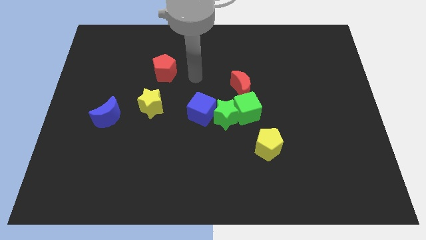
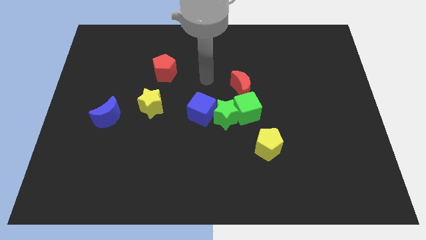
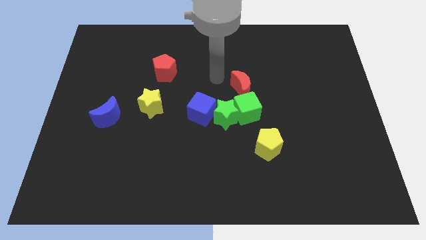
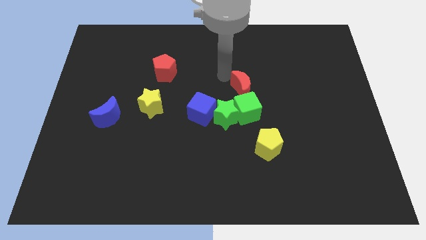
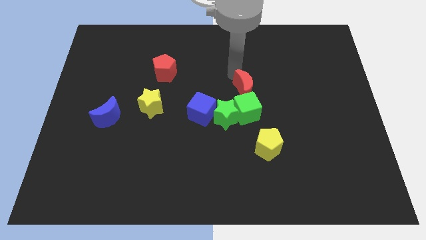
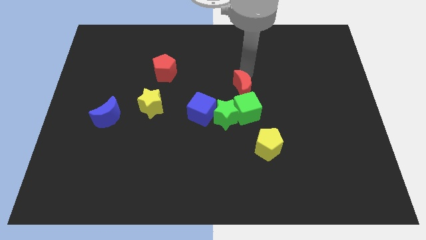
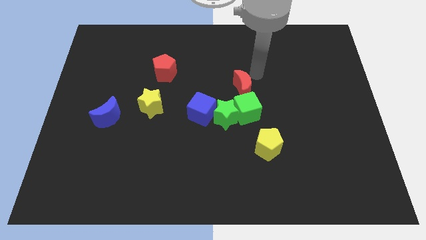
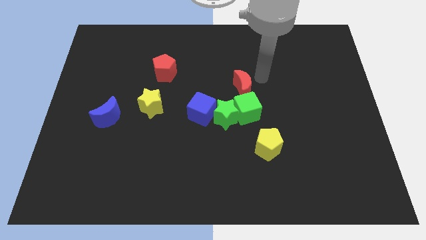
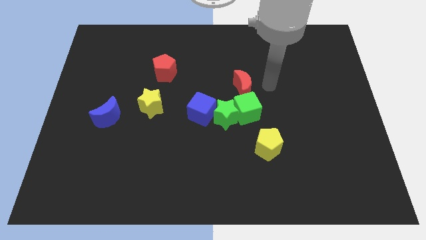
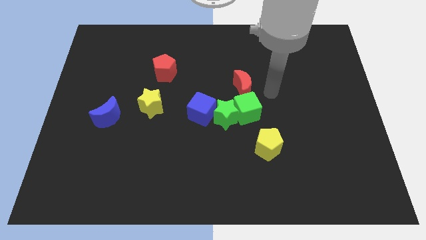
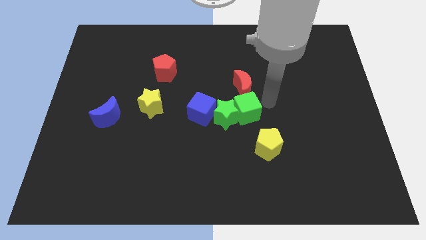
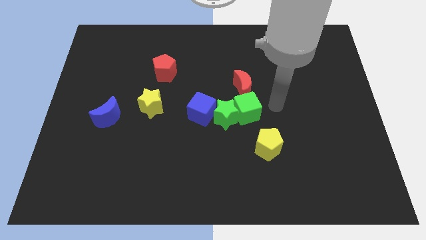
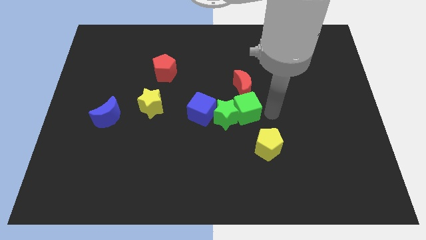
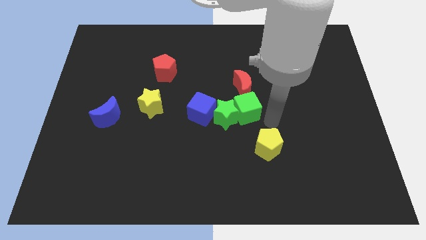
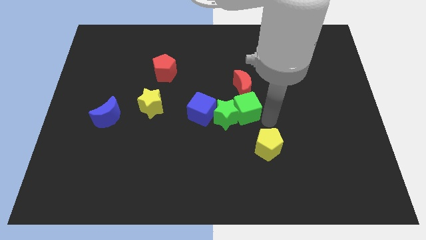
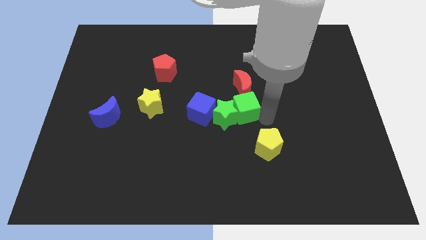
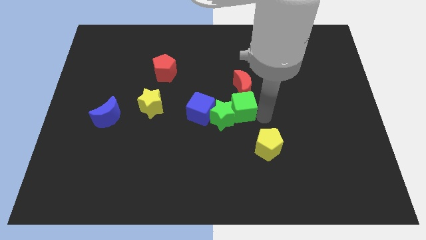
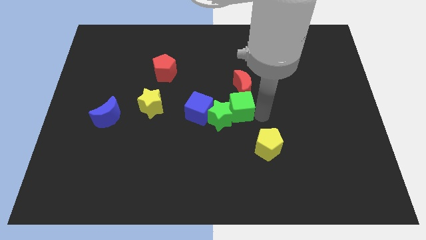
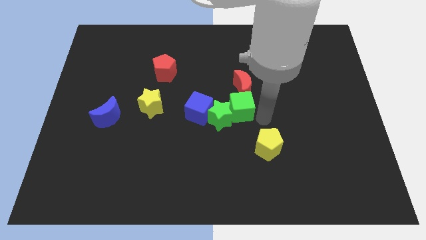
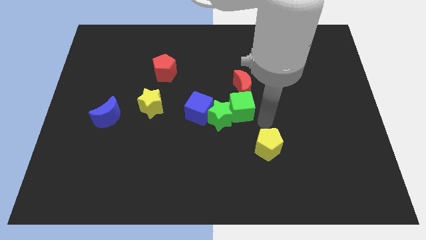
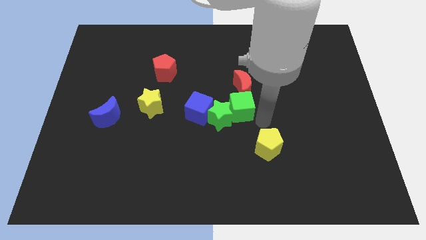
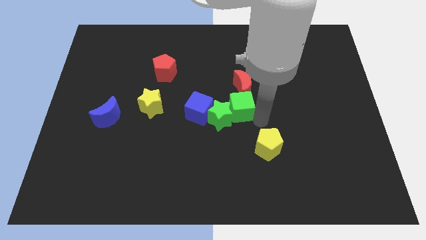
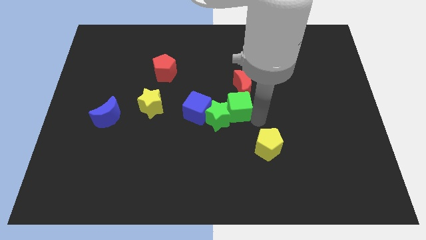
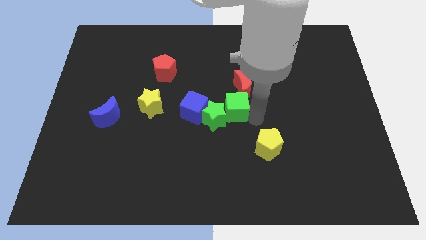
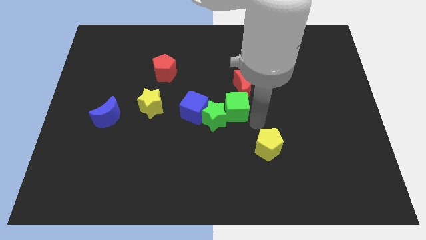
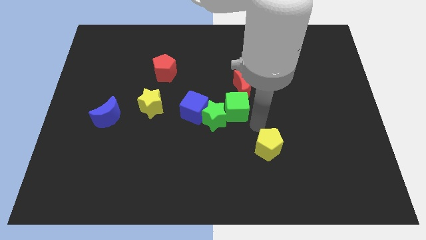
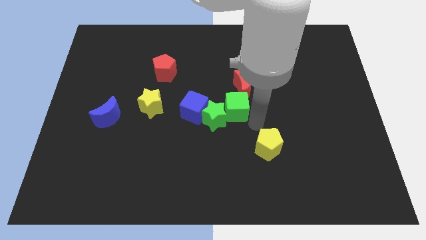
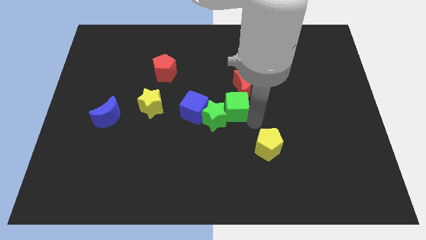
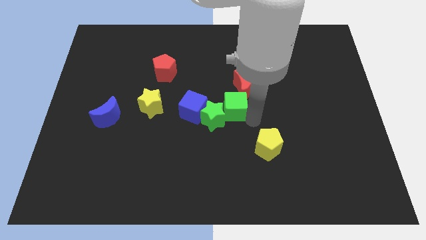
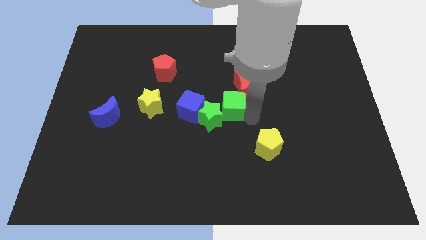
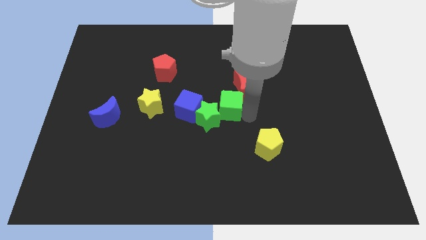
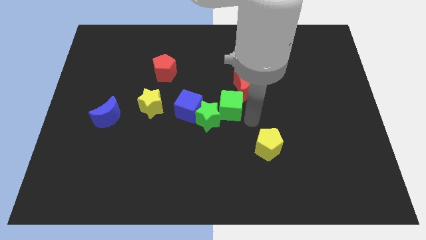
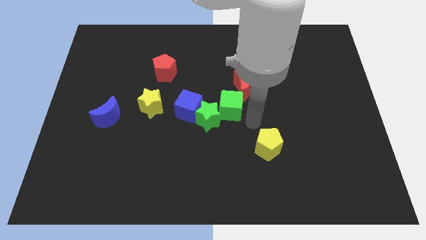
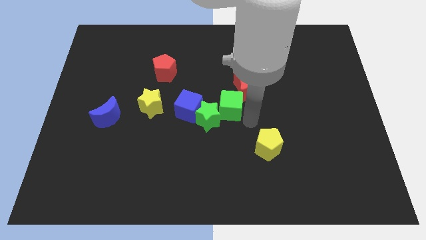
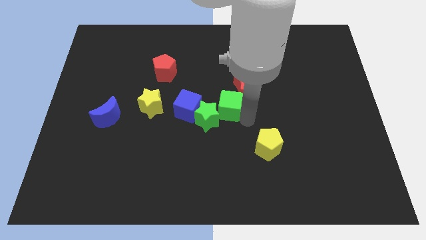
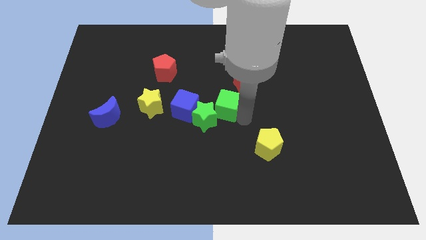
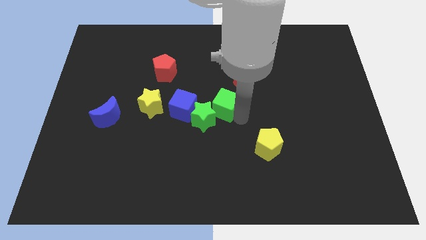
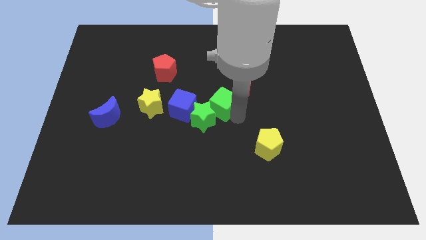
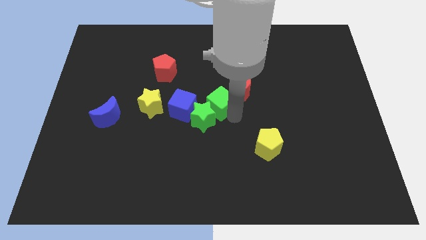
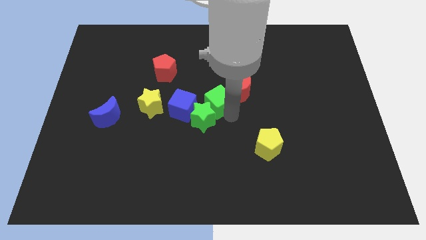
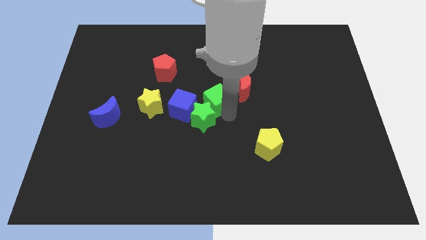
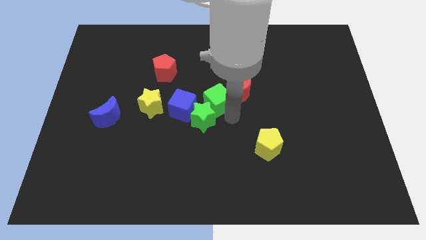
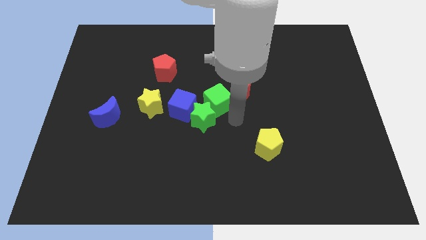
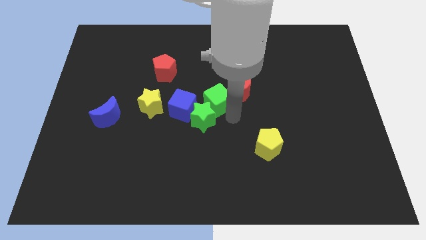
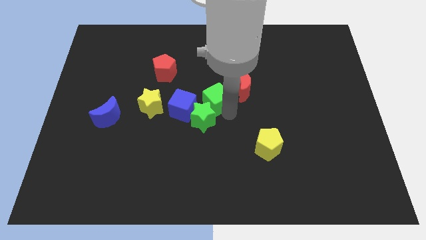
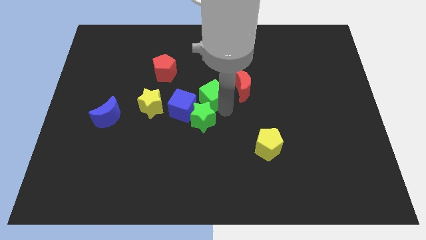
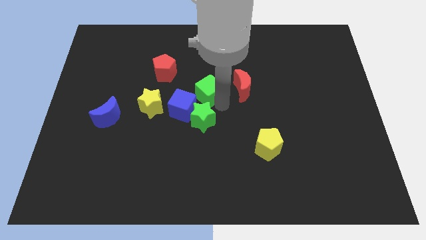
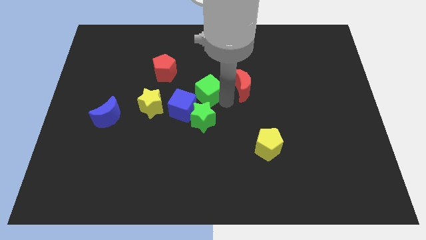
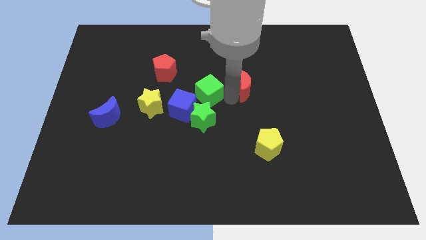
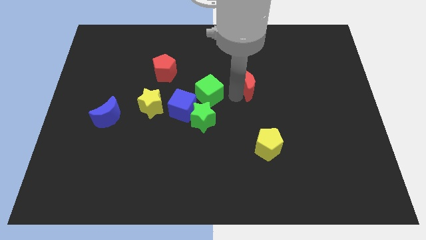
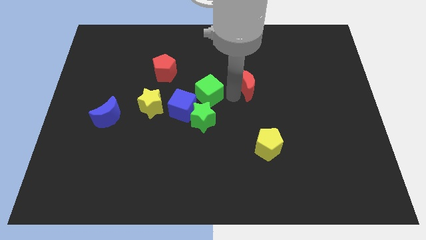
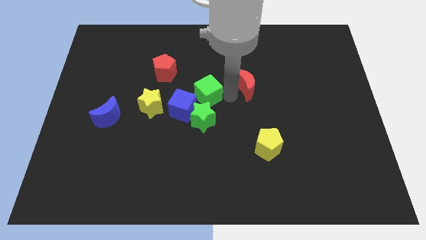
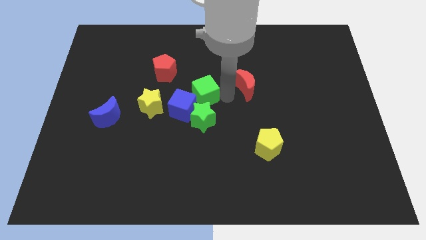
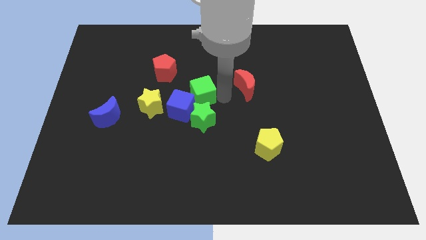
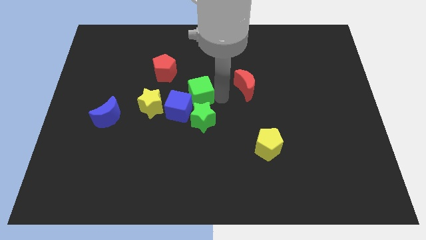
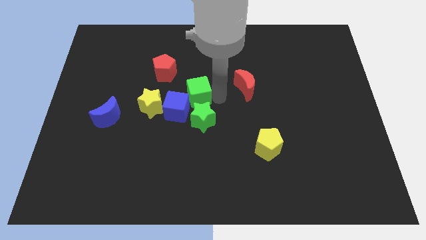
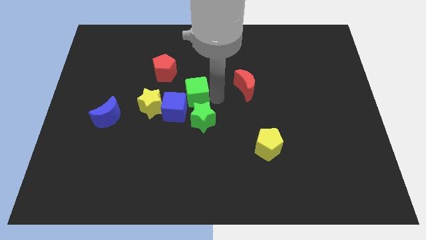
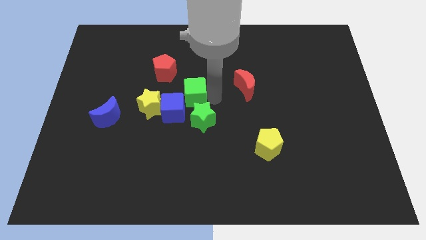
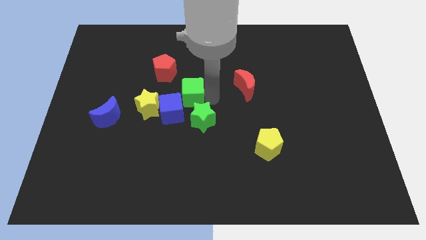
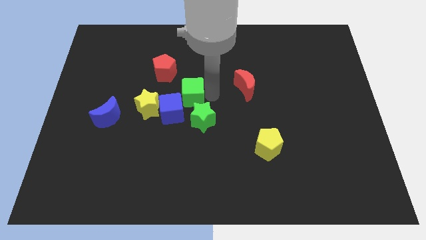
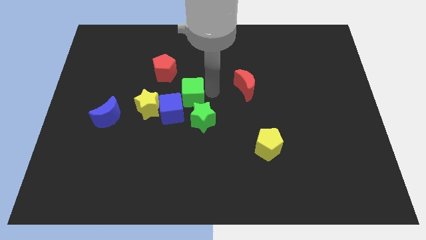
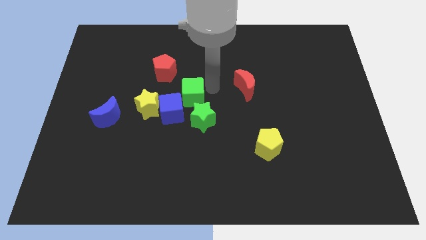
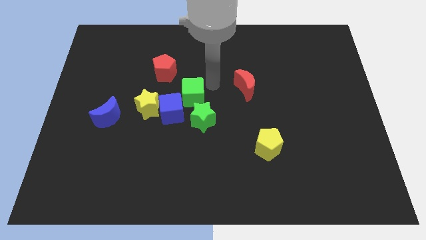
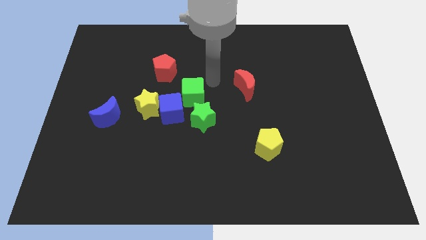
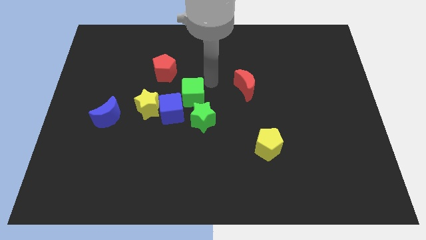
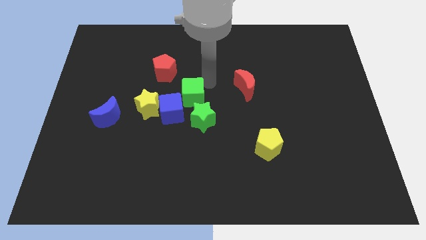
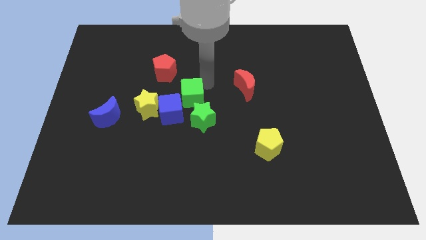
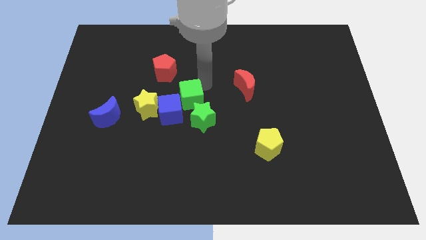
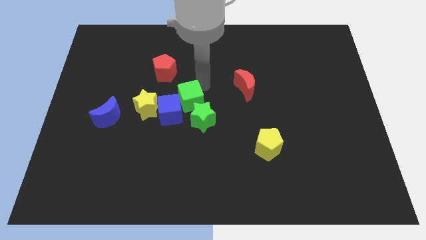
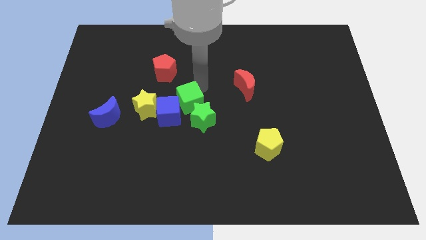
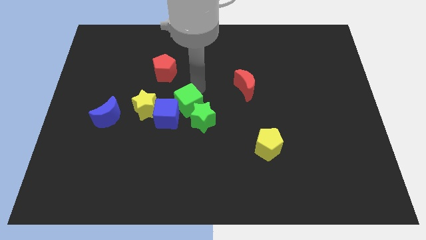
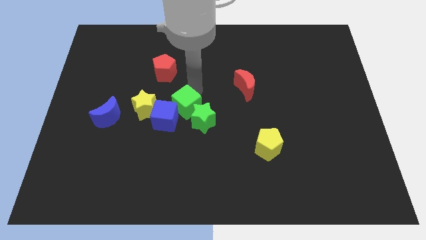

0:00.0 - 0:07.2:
put the green cube to the left of the green star

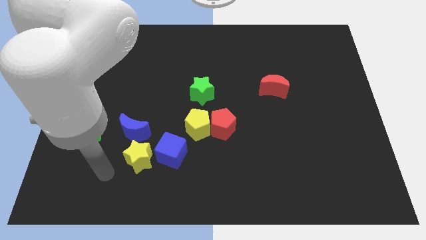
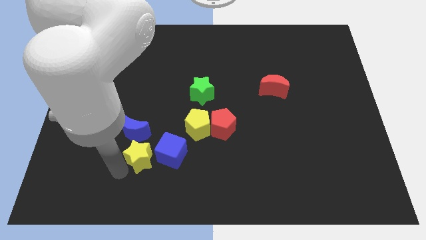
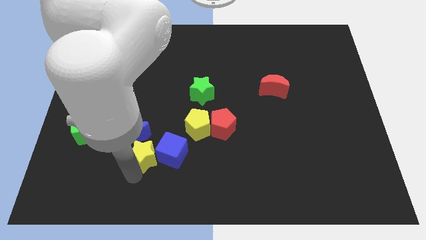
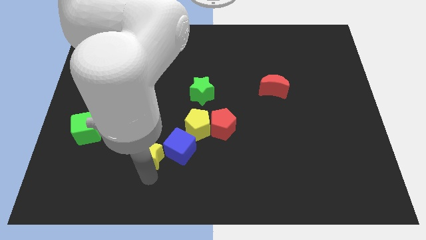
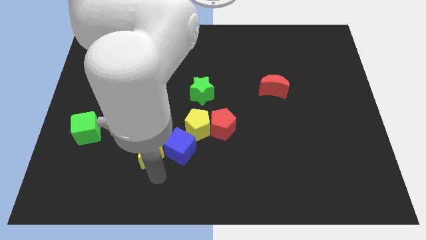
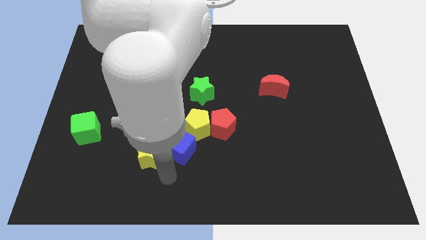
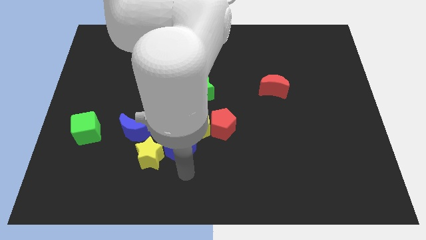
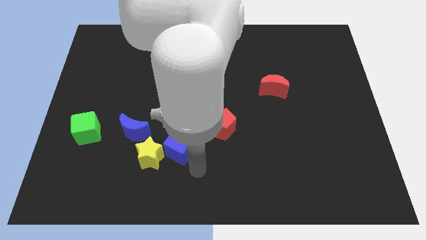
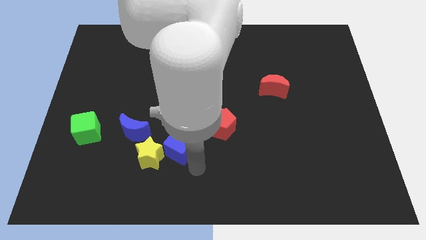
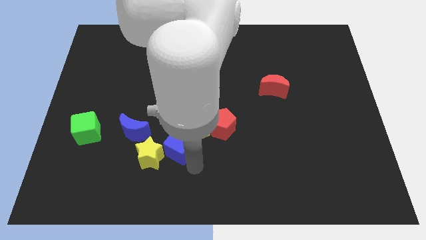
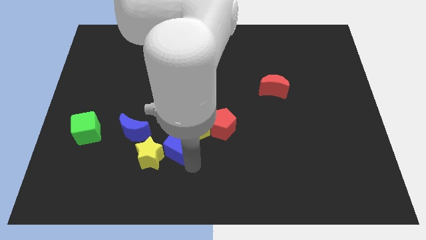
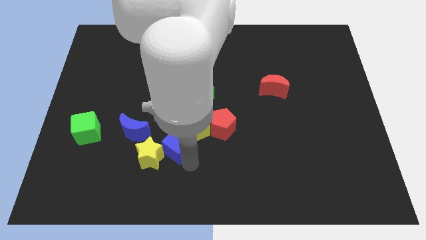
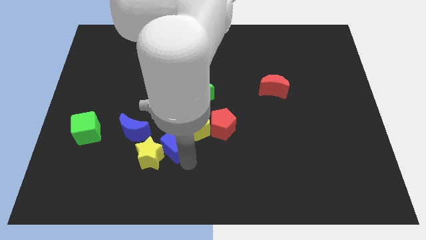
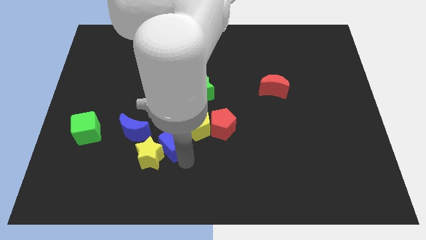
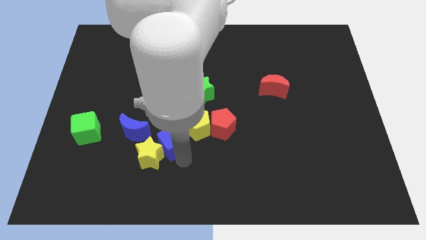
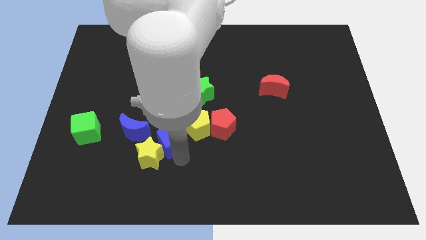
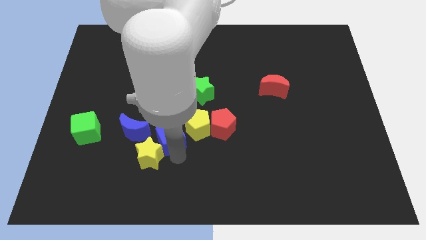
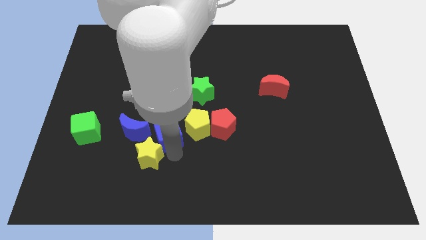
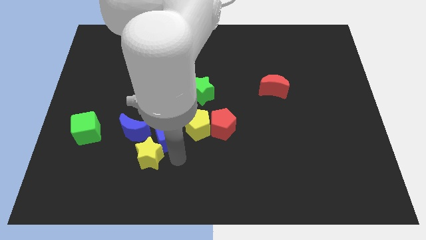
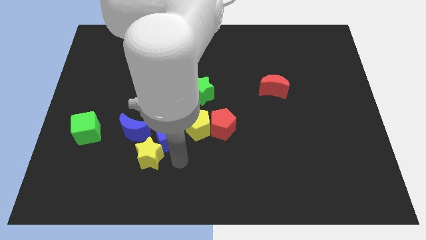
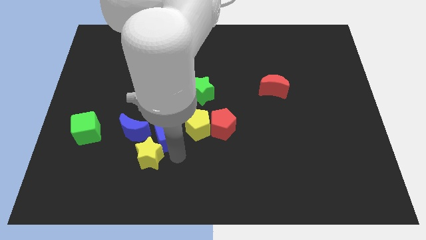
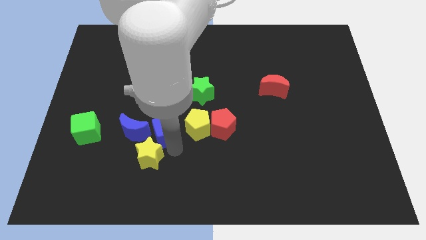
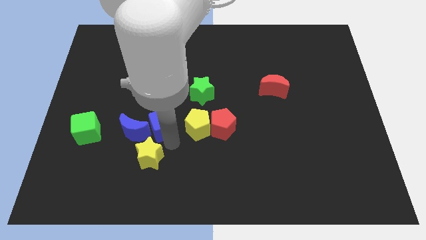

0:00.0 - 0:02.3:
move the blue cube diagonally up and to the right of the blue moon
